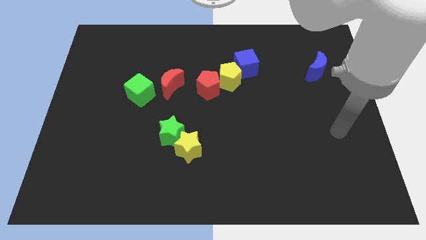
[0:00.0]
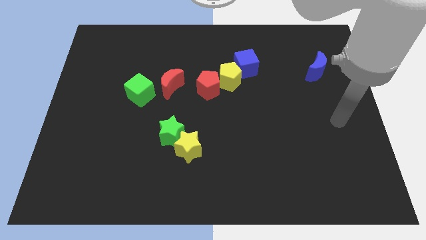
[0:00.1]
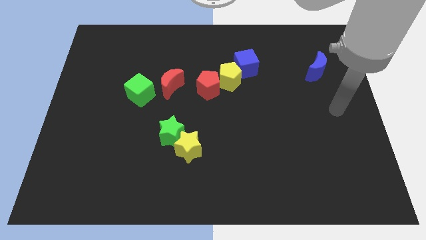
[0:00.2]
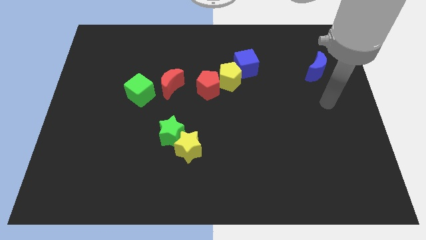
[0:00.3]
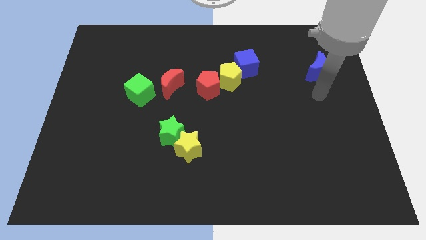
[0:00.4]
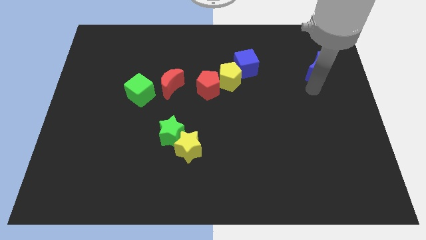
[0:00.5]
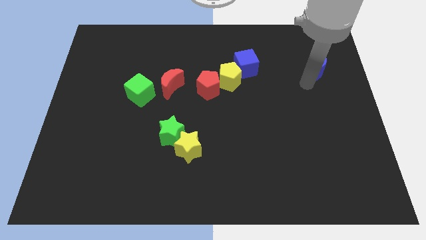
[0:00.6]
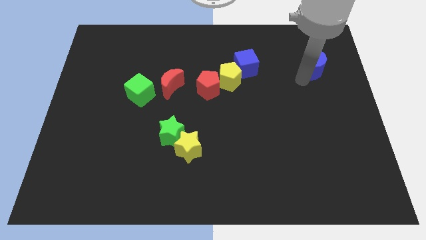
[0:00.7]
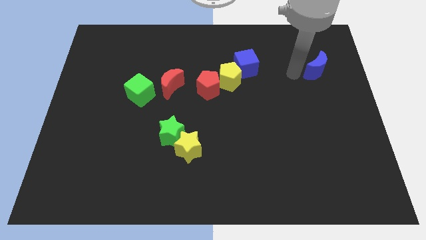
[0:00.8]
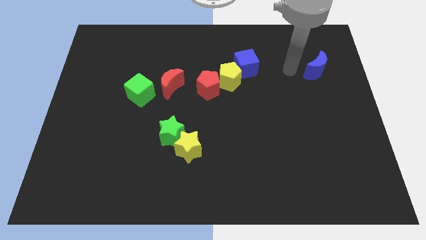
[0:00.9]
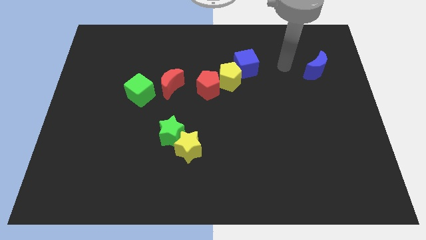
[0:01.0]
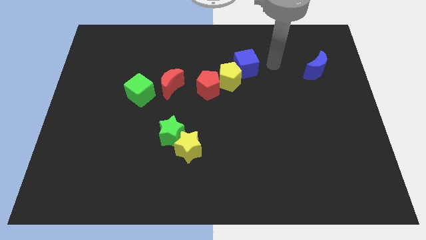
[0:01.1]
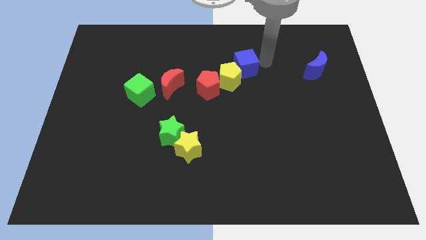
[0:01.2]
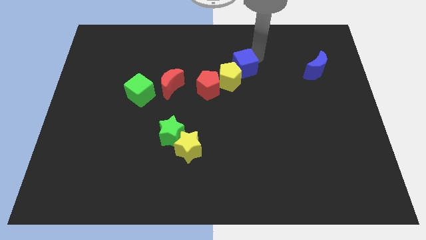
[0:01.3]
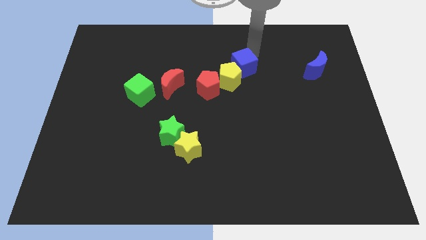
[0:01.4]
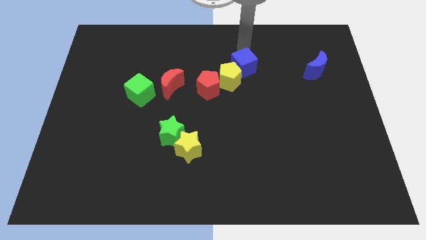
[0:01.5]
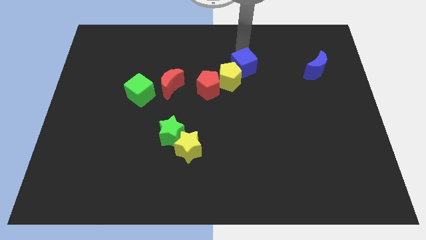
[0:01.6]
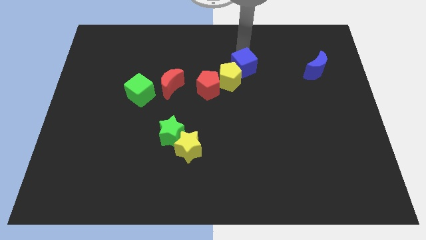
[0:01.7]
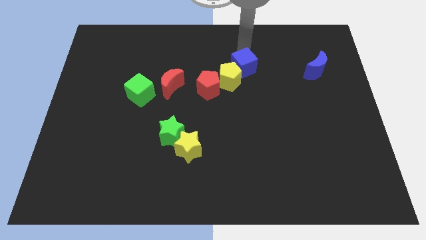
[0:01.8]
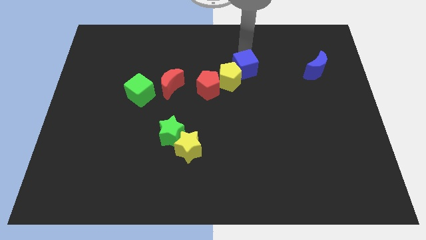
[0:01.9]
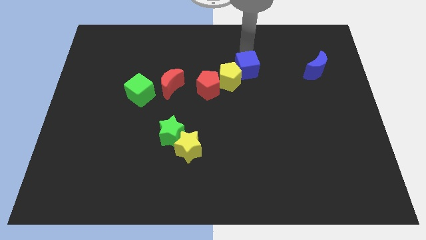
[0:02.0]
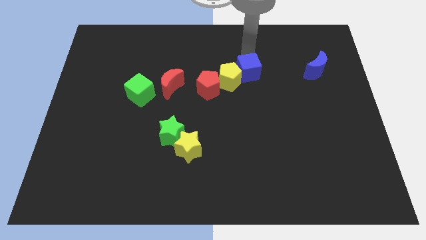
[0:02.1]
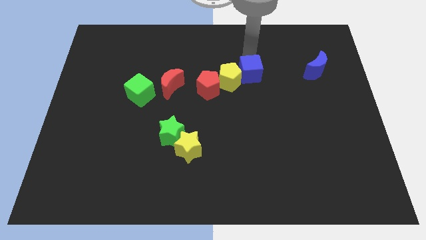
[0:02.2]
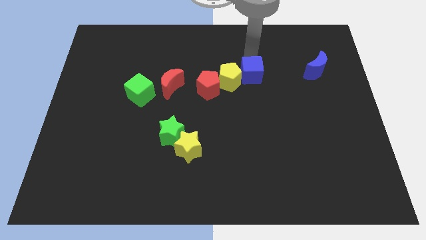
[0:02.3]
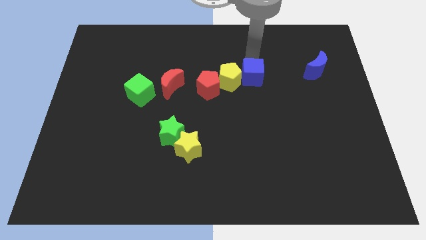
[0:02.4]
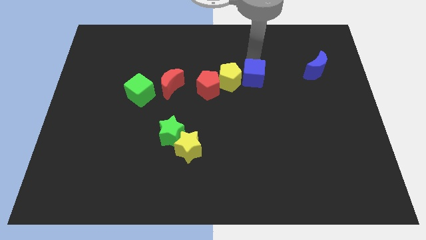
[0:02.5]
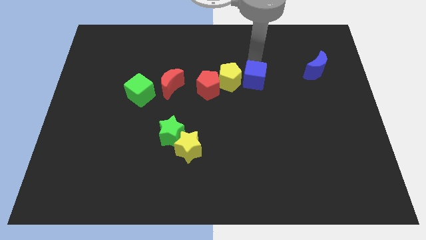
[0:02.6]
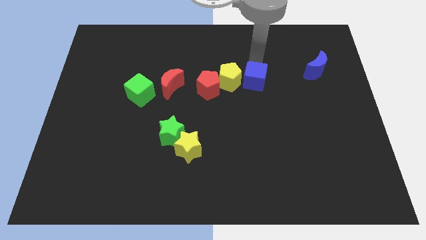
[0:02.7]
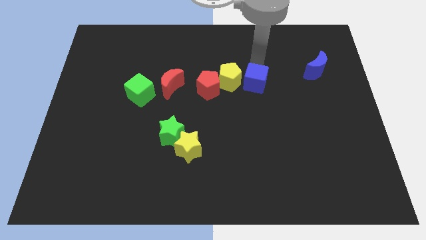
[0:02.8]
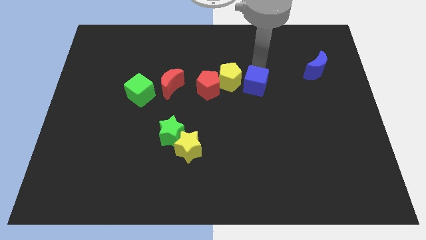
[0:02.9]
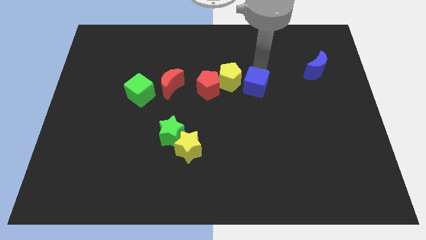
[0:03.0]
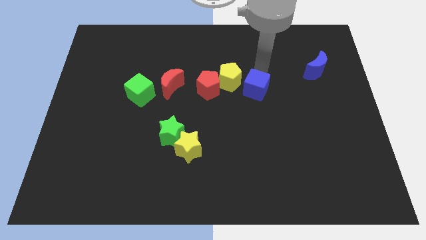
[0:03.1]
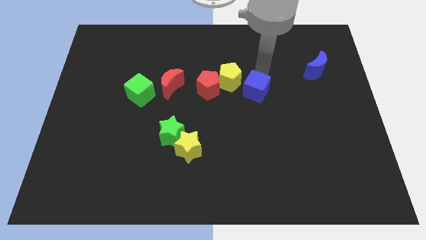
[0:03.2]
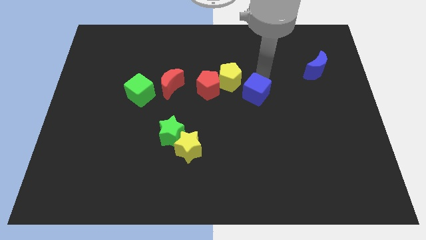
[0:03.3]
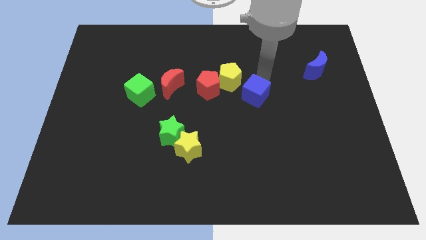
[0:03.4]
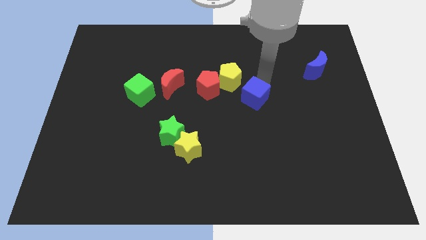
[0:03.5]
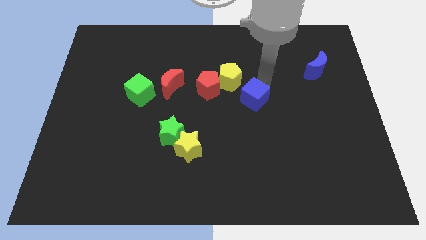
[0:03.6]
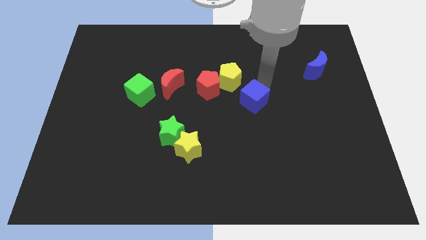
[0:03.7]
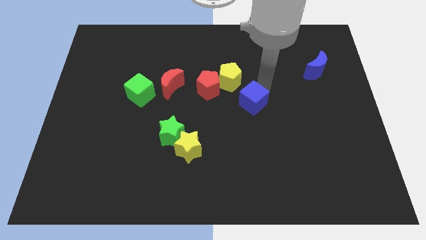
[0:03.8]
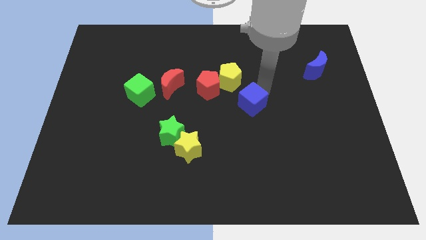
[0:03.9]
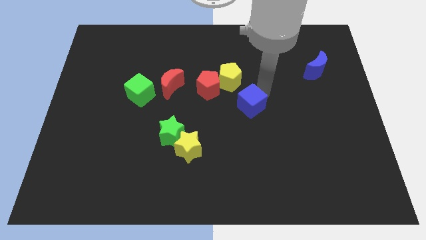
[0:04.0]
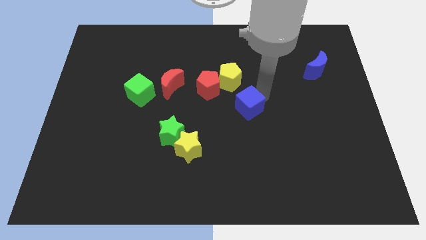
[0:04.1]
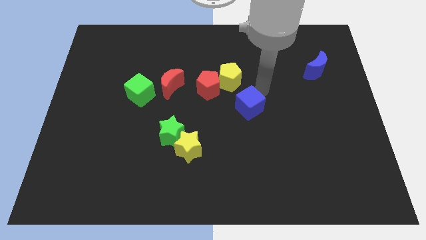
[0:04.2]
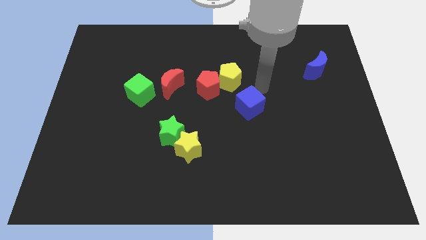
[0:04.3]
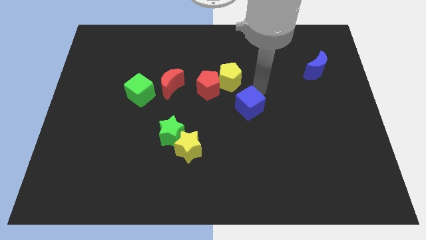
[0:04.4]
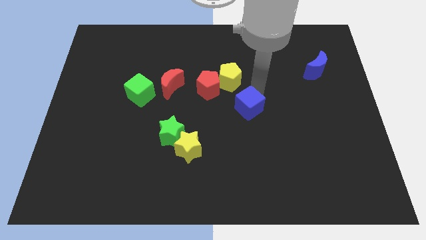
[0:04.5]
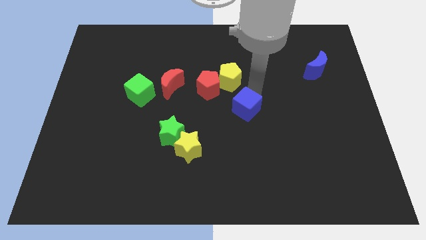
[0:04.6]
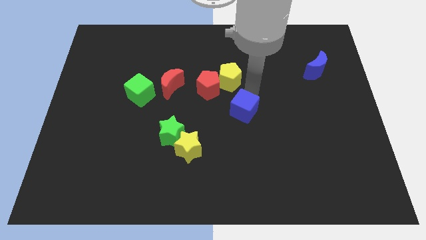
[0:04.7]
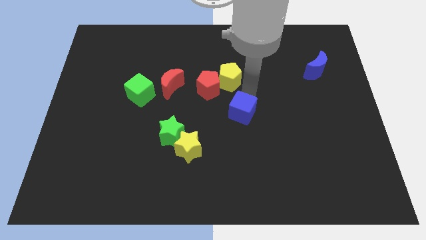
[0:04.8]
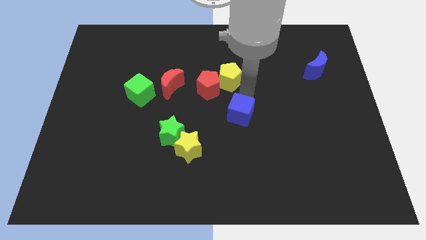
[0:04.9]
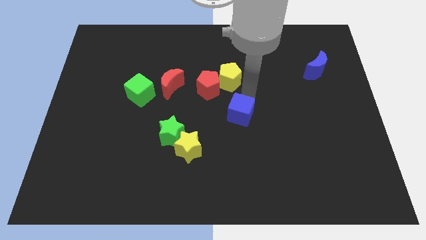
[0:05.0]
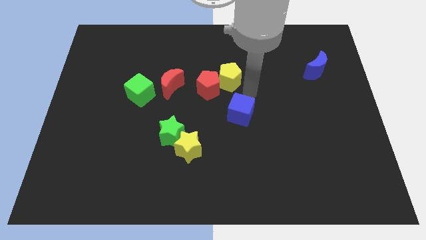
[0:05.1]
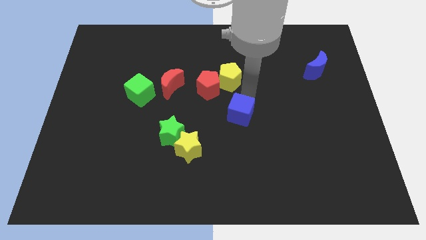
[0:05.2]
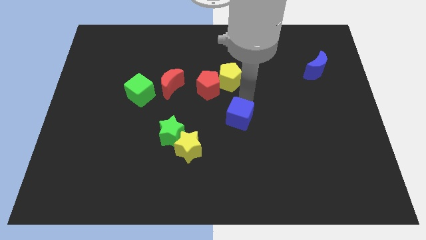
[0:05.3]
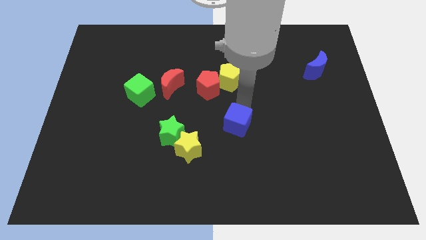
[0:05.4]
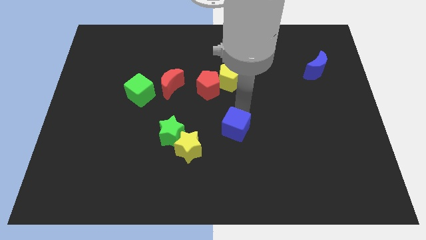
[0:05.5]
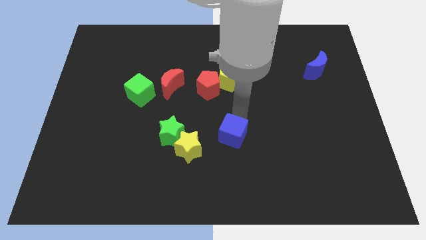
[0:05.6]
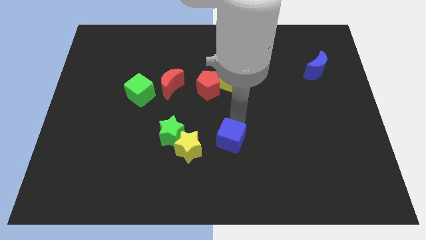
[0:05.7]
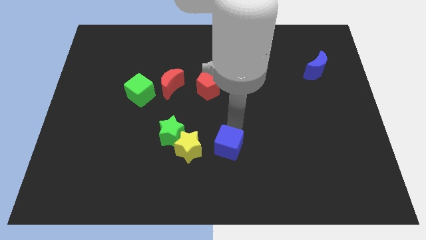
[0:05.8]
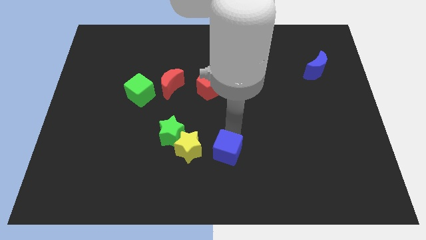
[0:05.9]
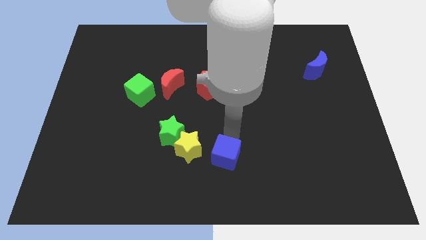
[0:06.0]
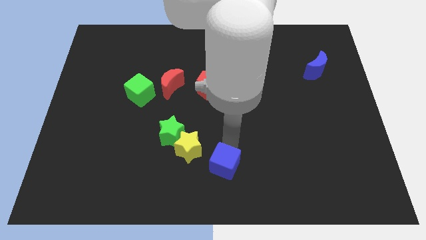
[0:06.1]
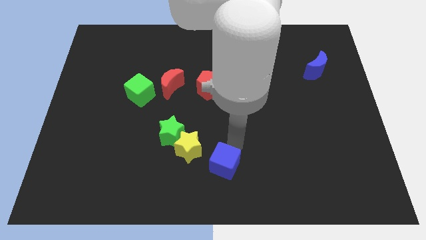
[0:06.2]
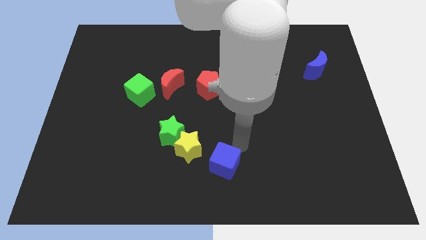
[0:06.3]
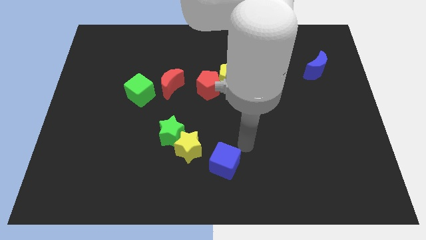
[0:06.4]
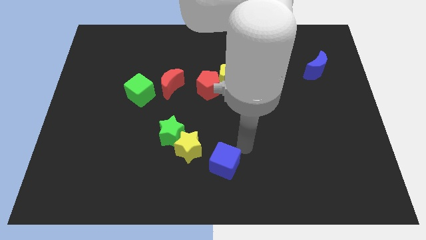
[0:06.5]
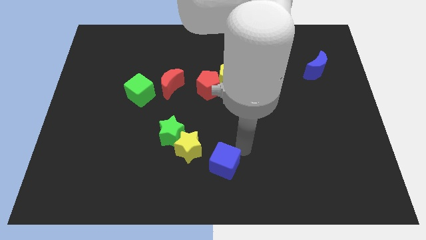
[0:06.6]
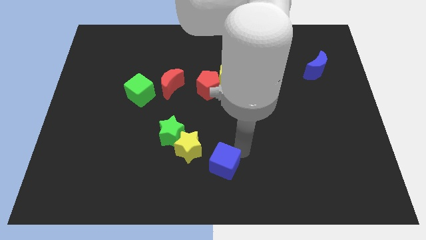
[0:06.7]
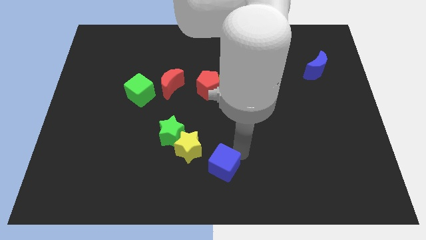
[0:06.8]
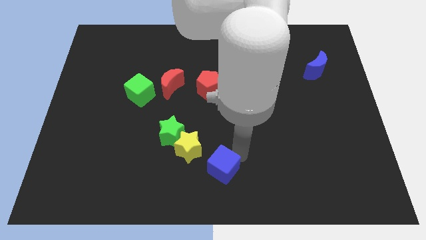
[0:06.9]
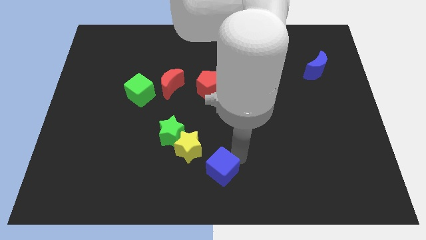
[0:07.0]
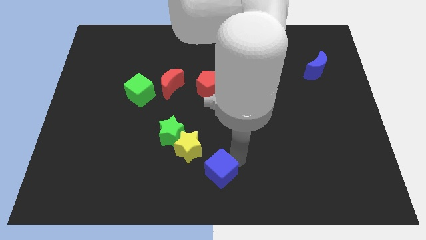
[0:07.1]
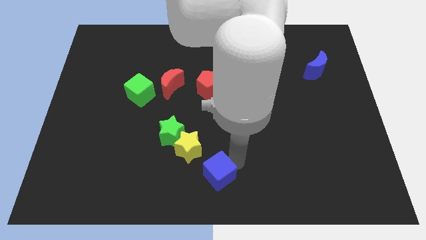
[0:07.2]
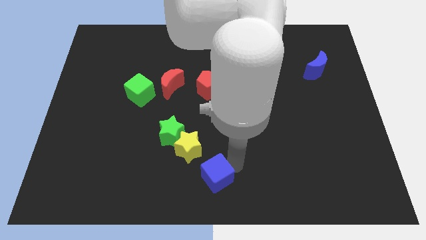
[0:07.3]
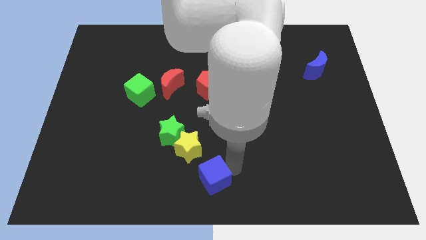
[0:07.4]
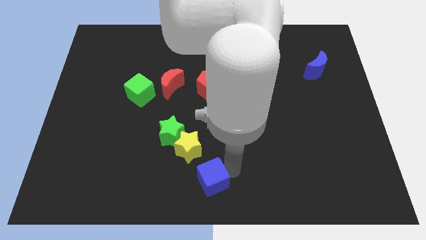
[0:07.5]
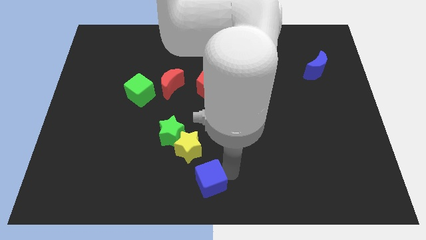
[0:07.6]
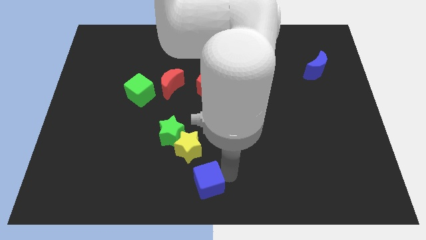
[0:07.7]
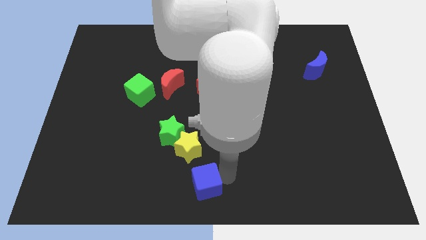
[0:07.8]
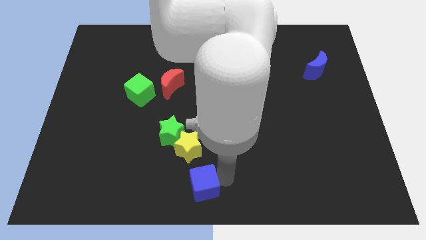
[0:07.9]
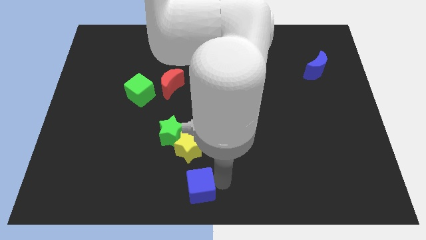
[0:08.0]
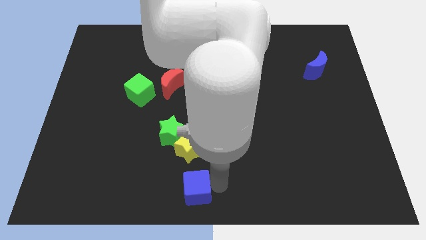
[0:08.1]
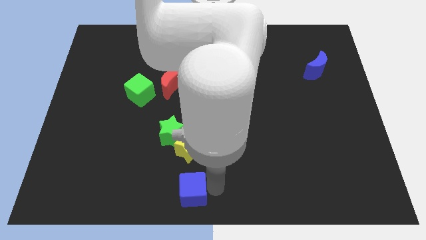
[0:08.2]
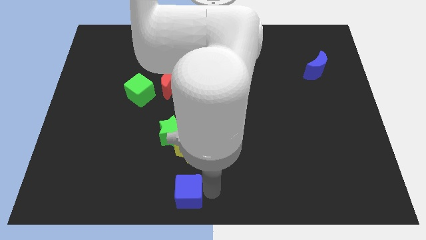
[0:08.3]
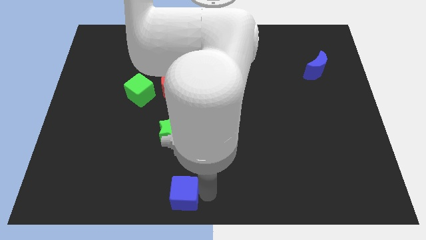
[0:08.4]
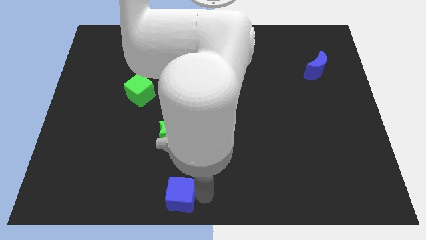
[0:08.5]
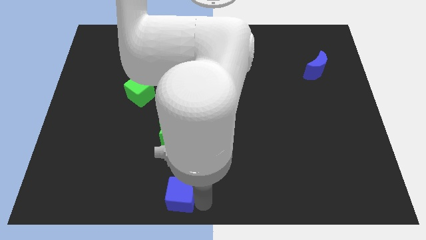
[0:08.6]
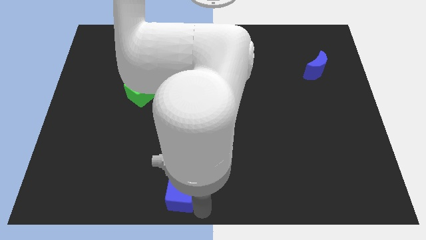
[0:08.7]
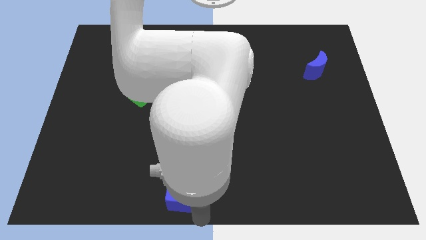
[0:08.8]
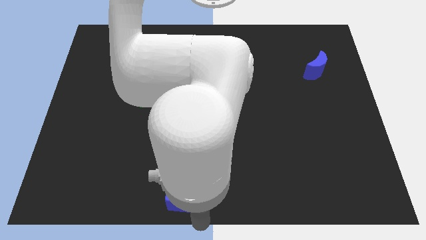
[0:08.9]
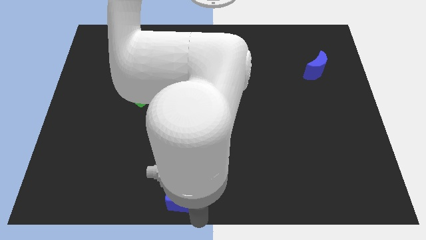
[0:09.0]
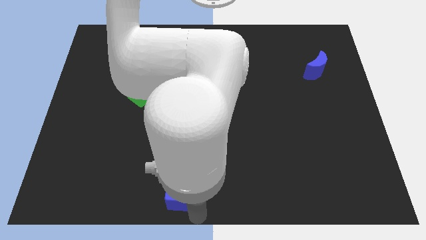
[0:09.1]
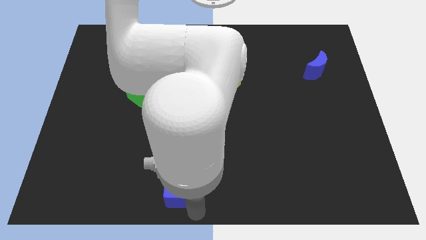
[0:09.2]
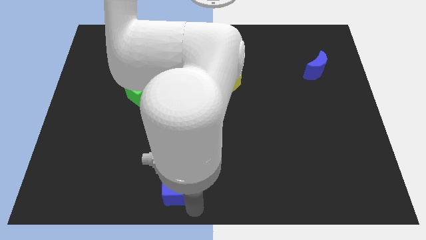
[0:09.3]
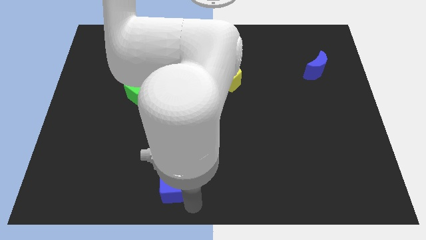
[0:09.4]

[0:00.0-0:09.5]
slide the blue cube to the bottom left side of the yellow star
